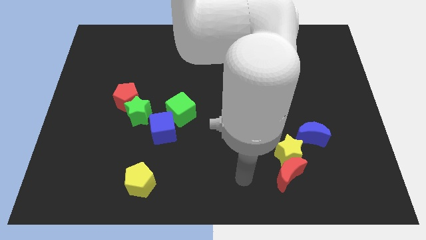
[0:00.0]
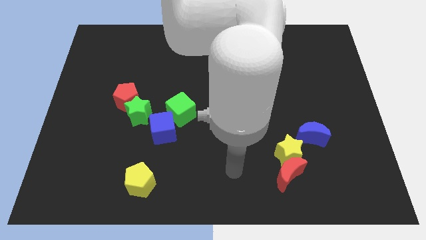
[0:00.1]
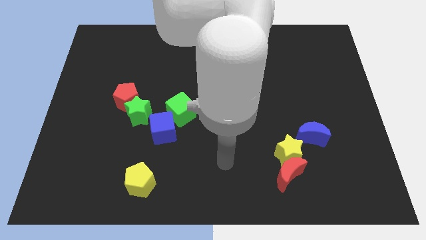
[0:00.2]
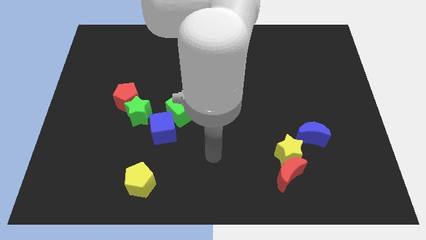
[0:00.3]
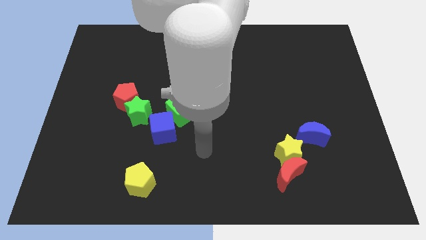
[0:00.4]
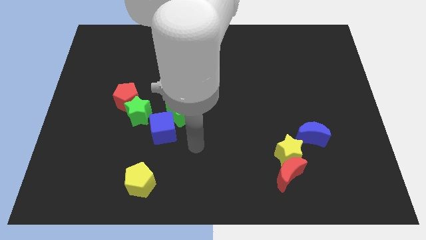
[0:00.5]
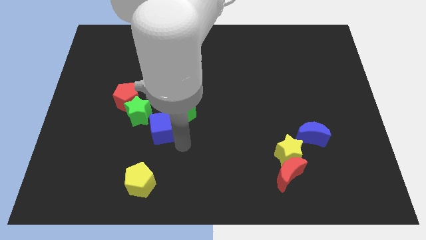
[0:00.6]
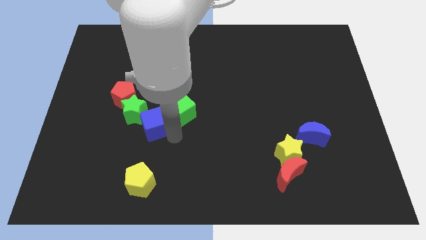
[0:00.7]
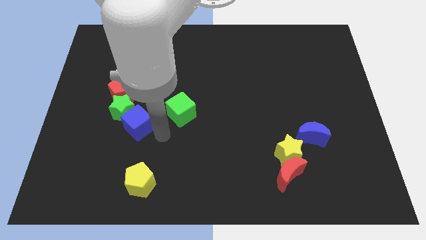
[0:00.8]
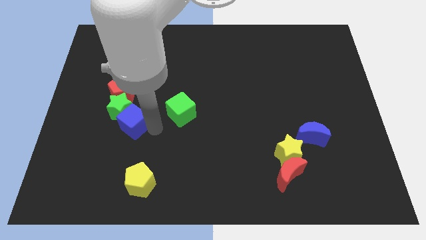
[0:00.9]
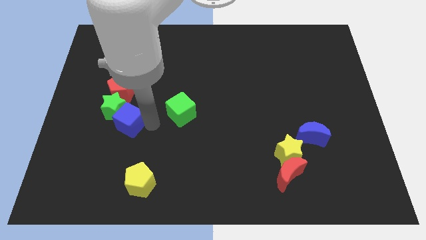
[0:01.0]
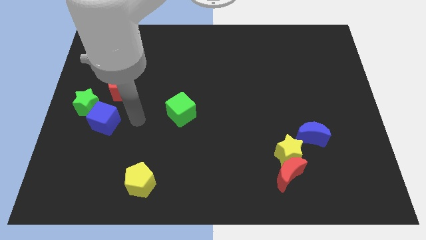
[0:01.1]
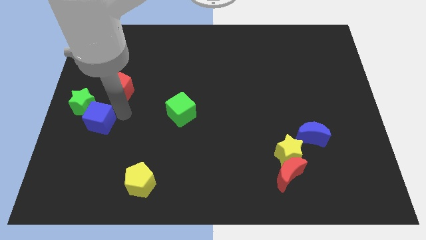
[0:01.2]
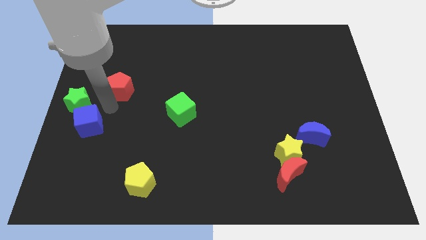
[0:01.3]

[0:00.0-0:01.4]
pull the red pentagon apart from the green star

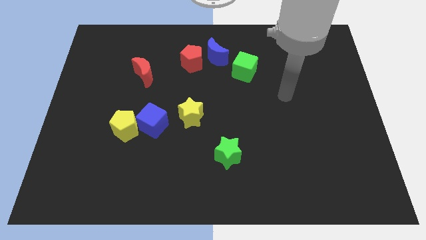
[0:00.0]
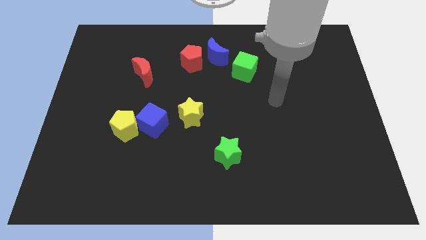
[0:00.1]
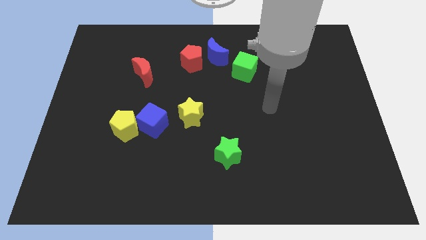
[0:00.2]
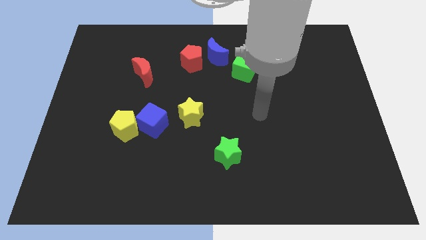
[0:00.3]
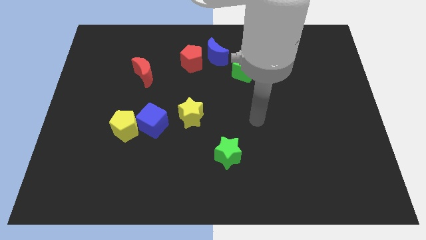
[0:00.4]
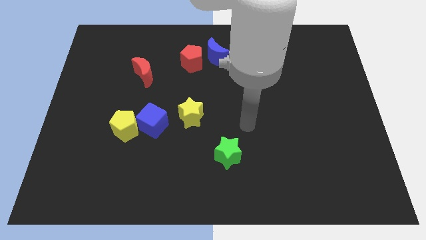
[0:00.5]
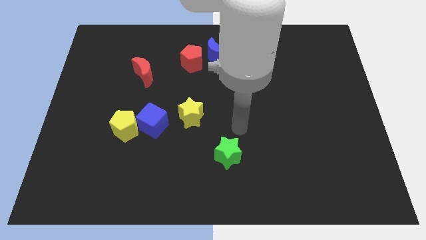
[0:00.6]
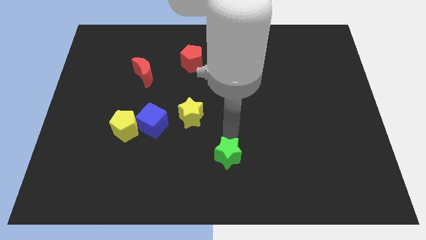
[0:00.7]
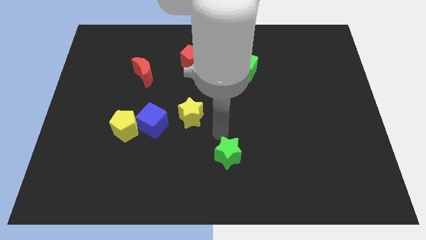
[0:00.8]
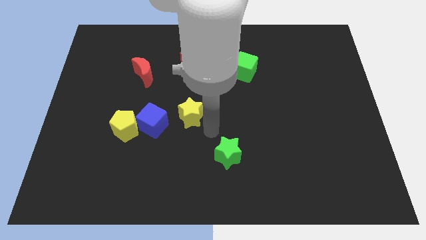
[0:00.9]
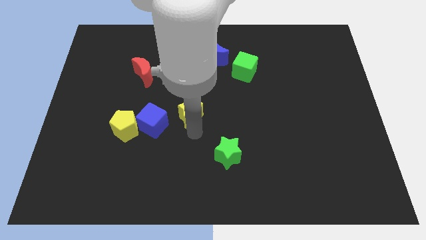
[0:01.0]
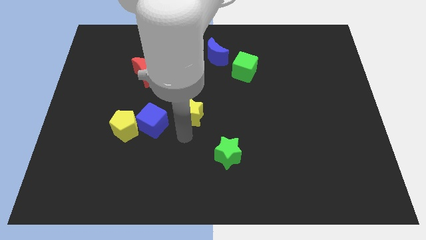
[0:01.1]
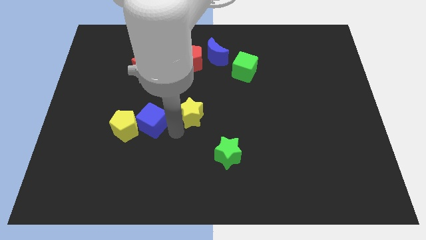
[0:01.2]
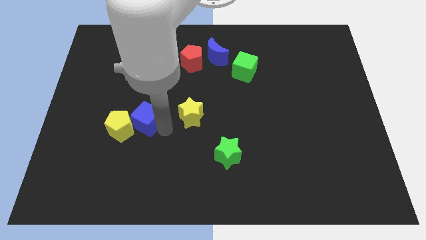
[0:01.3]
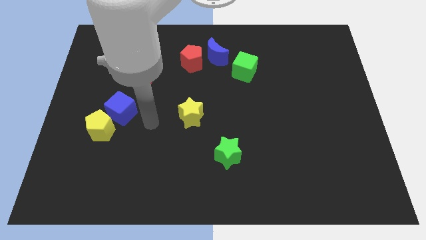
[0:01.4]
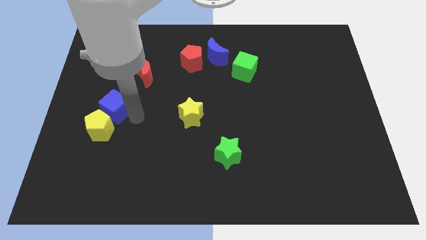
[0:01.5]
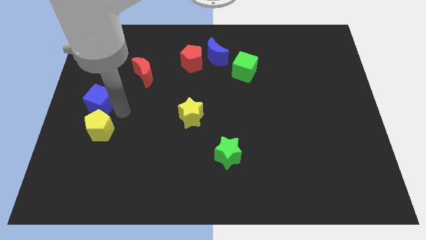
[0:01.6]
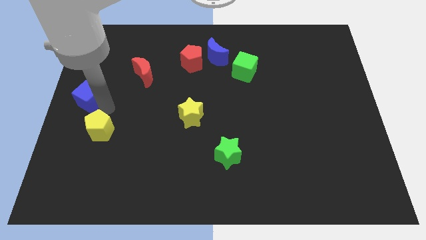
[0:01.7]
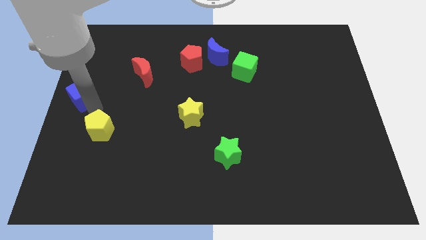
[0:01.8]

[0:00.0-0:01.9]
move the yellow pentagon away from the blue cube

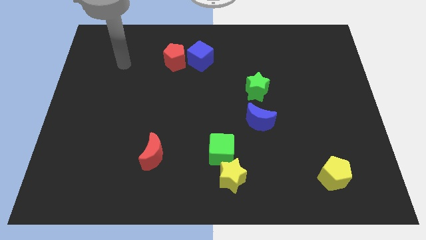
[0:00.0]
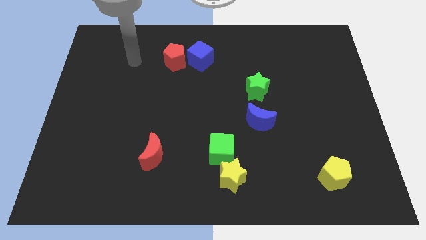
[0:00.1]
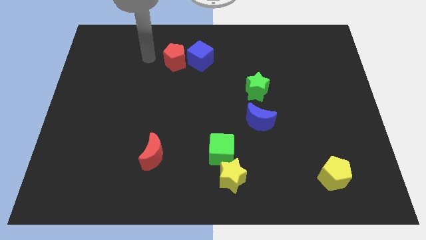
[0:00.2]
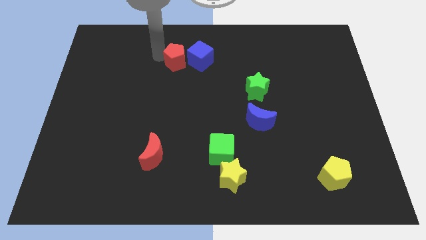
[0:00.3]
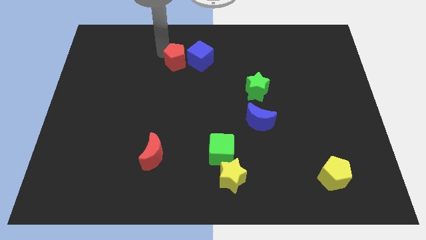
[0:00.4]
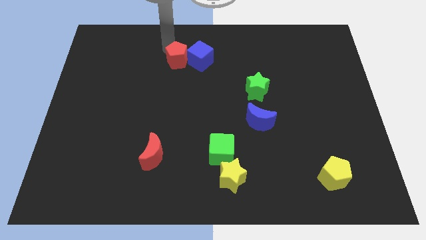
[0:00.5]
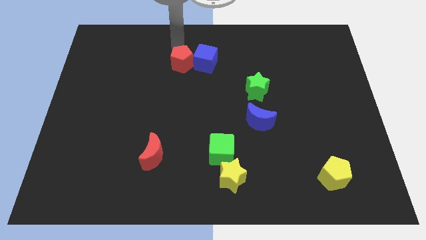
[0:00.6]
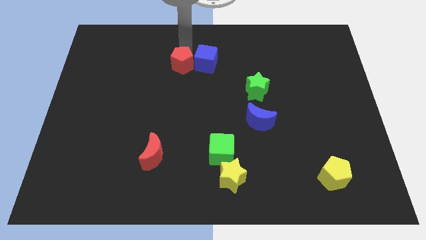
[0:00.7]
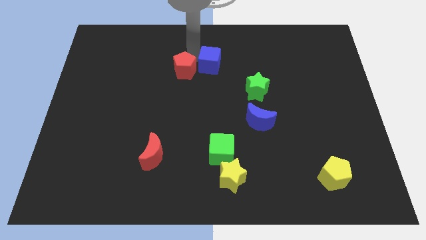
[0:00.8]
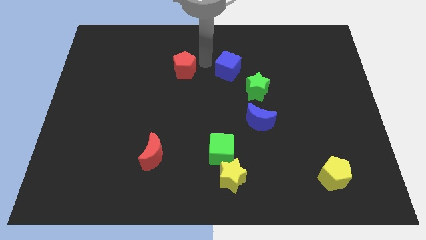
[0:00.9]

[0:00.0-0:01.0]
separate the red pentagon from the blue cube

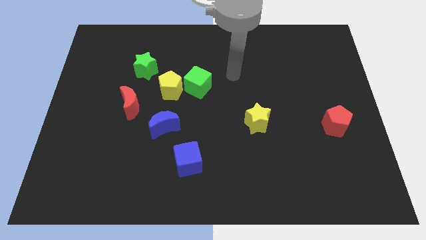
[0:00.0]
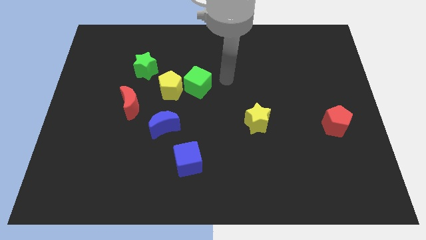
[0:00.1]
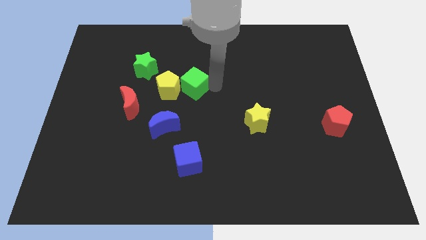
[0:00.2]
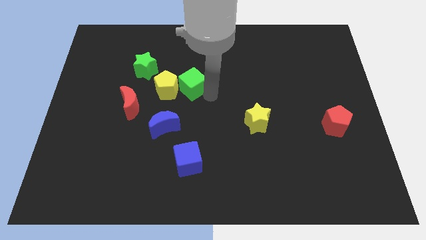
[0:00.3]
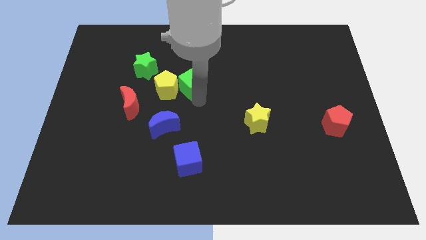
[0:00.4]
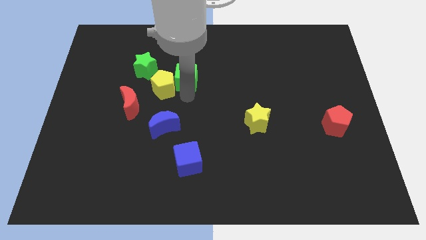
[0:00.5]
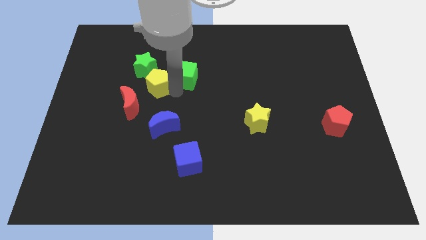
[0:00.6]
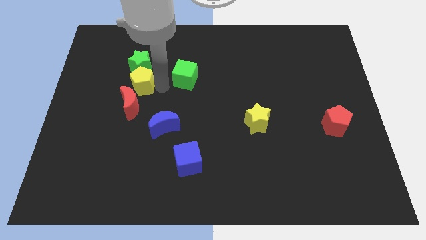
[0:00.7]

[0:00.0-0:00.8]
move the green cube away from the yellow pentagon

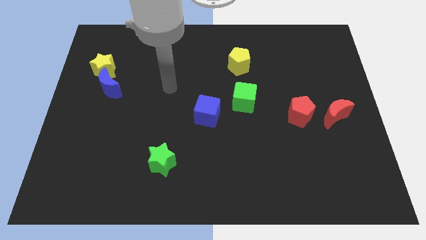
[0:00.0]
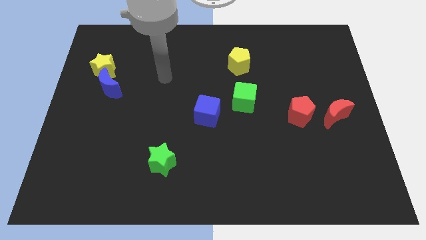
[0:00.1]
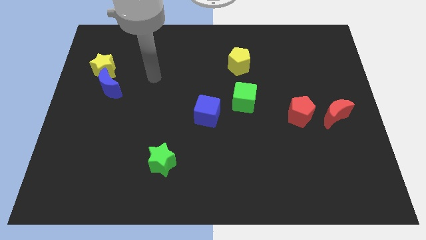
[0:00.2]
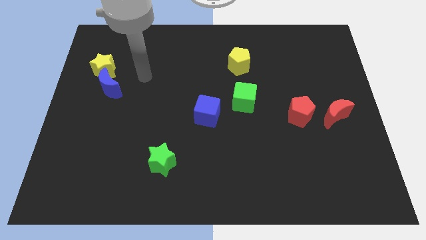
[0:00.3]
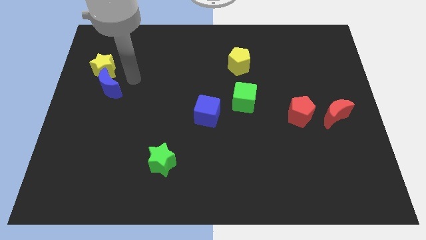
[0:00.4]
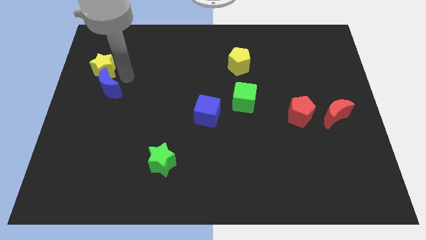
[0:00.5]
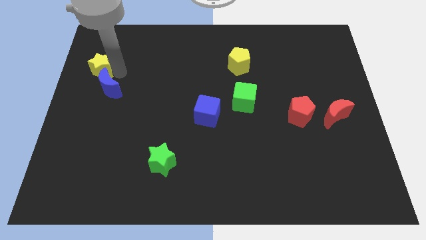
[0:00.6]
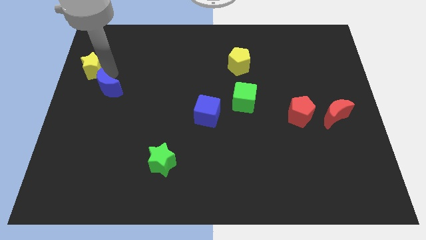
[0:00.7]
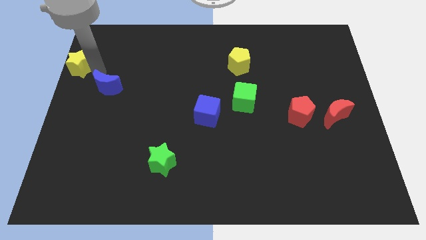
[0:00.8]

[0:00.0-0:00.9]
pull the blue moon apart from the yellow star

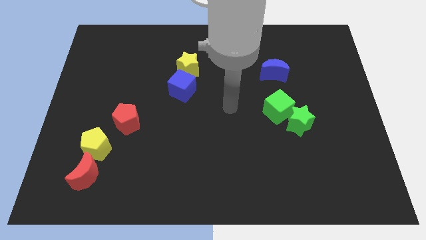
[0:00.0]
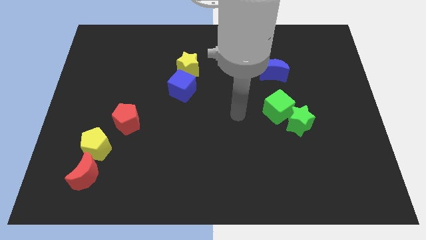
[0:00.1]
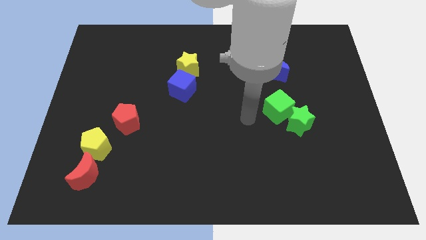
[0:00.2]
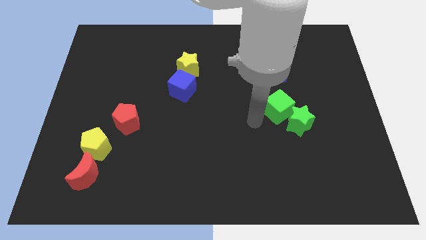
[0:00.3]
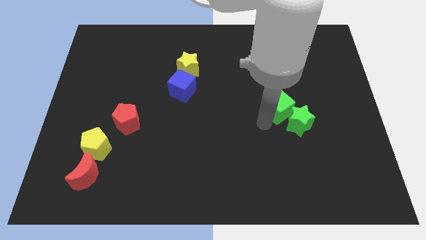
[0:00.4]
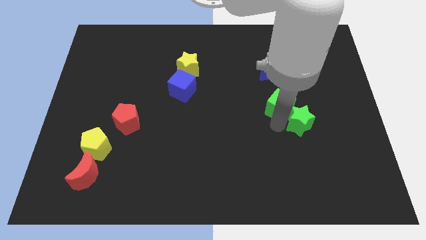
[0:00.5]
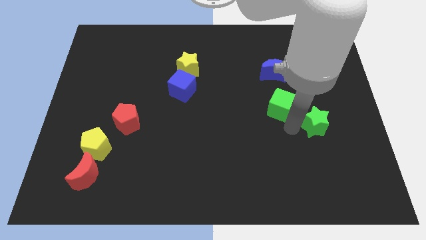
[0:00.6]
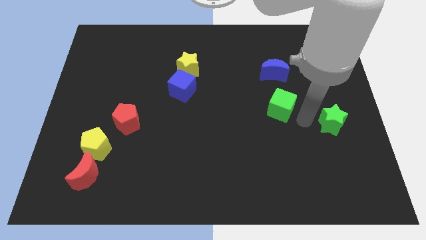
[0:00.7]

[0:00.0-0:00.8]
separate the green cube from the green star

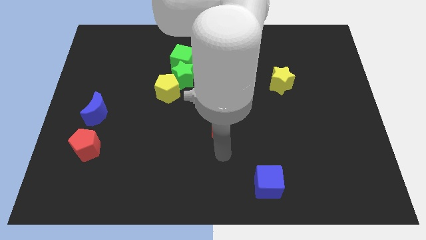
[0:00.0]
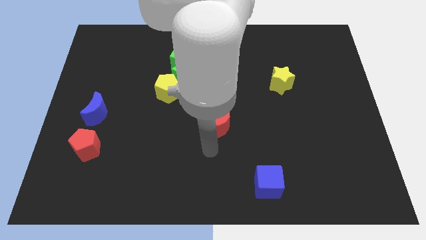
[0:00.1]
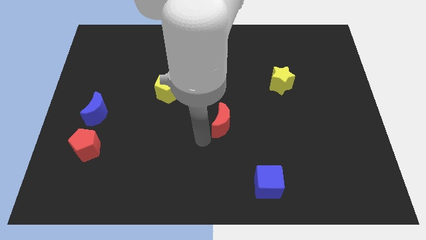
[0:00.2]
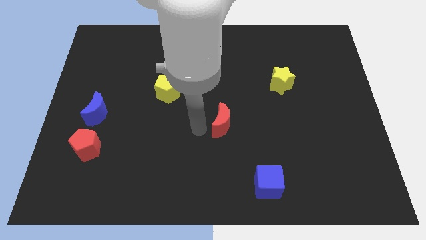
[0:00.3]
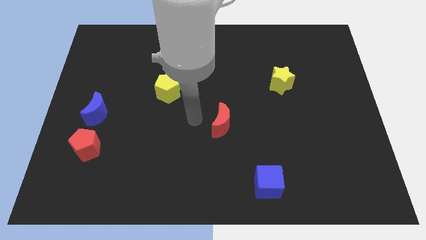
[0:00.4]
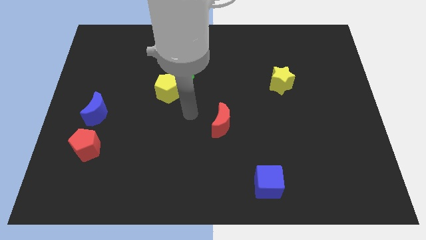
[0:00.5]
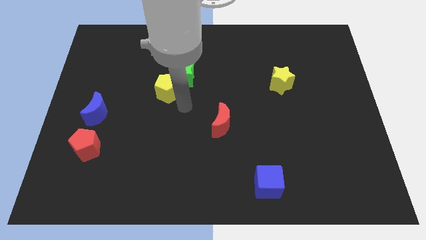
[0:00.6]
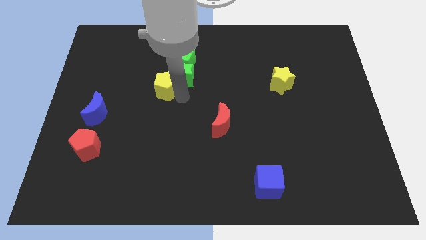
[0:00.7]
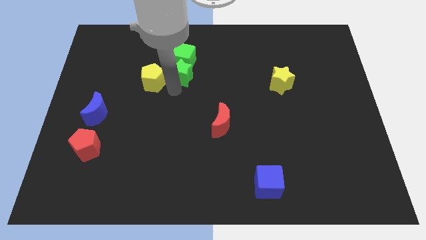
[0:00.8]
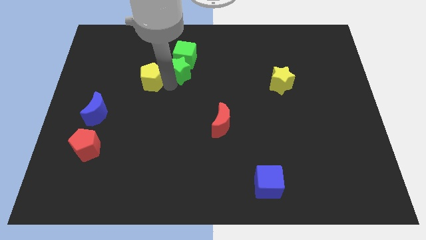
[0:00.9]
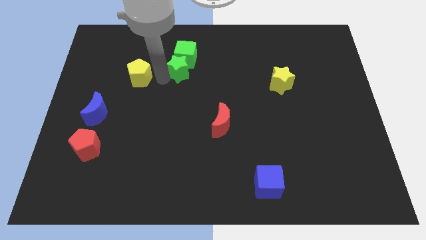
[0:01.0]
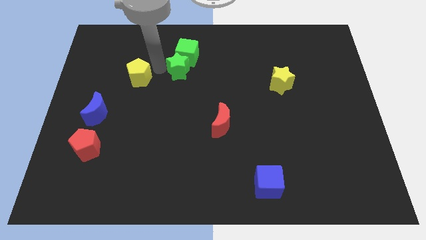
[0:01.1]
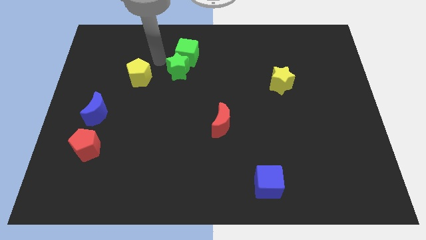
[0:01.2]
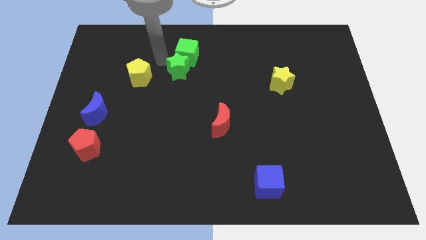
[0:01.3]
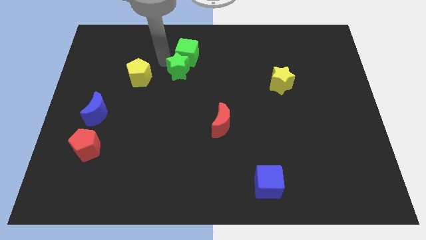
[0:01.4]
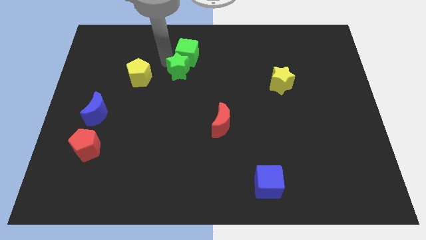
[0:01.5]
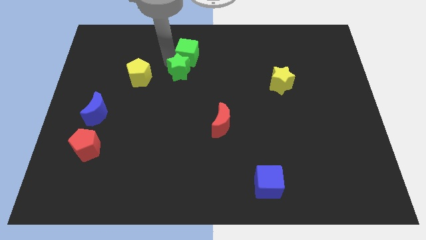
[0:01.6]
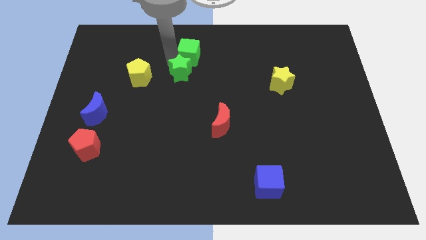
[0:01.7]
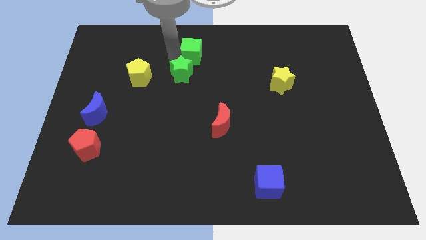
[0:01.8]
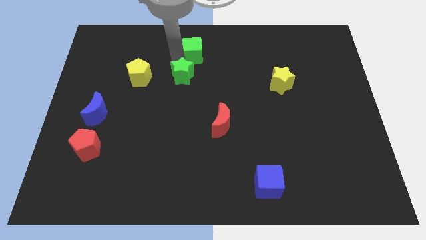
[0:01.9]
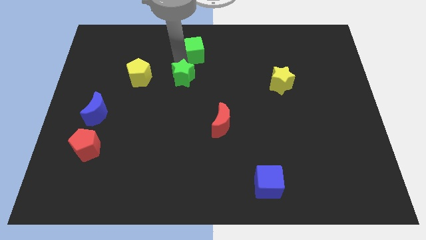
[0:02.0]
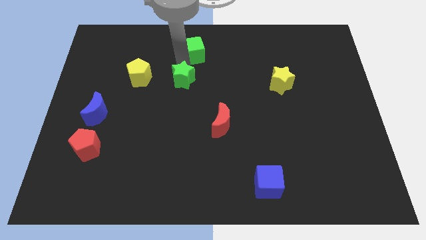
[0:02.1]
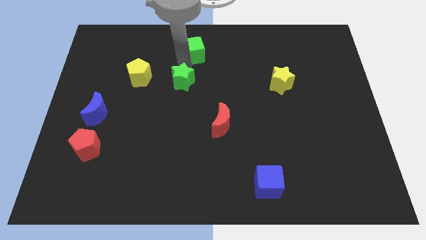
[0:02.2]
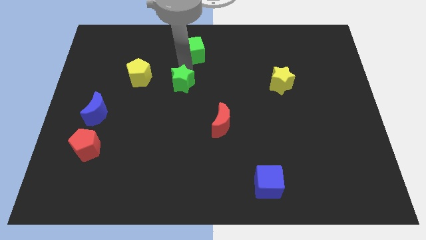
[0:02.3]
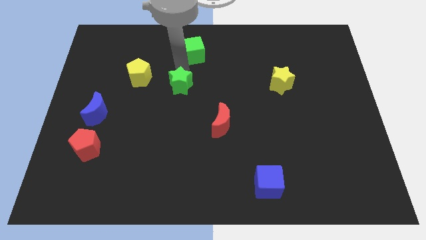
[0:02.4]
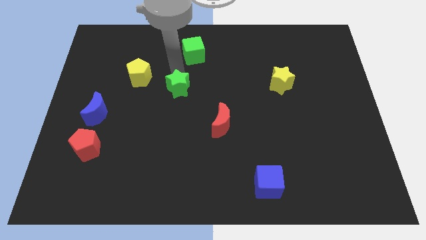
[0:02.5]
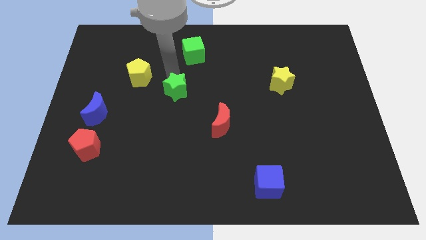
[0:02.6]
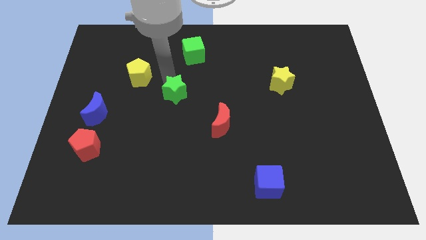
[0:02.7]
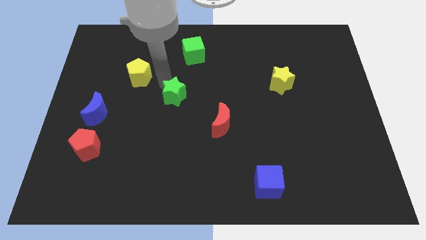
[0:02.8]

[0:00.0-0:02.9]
move the green star away from the yellow pentagon and green cube
